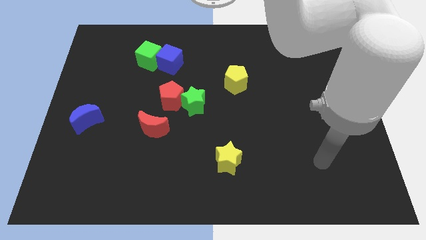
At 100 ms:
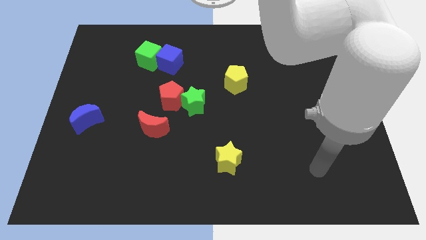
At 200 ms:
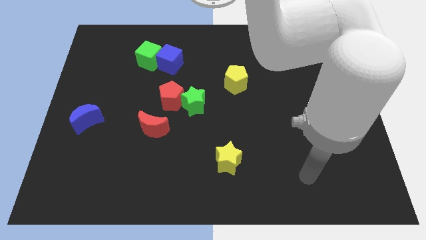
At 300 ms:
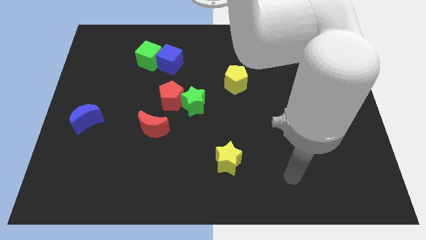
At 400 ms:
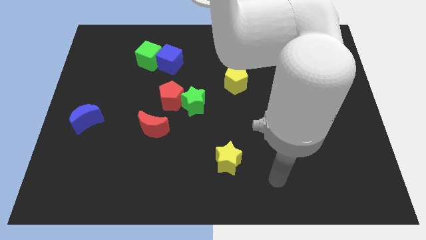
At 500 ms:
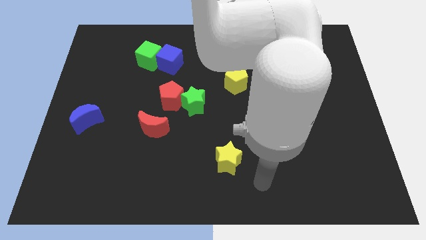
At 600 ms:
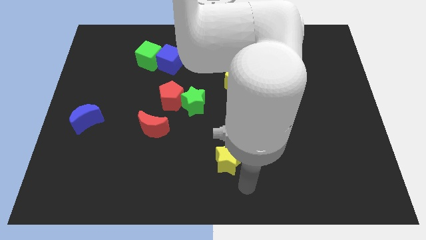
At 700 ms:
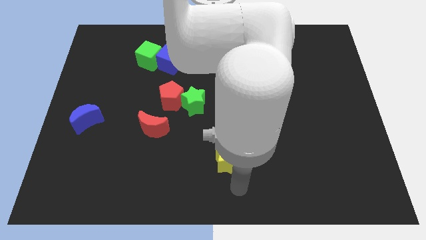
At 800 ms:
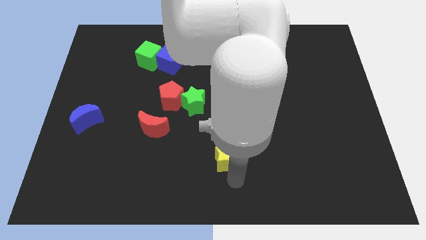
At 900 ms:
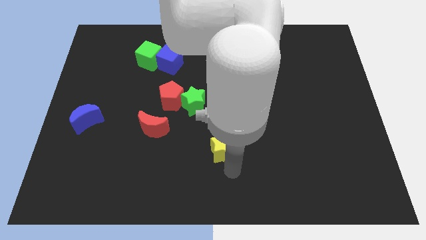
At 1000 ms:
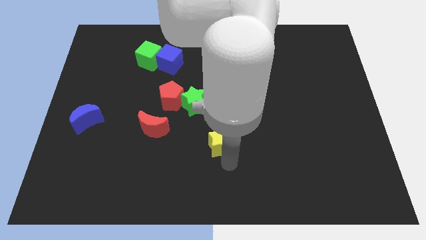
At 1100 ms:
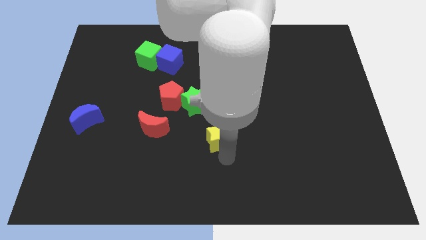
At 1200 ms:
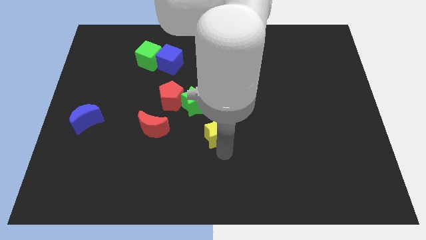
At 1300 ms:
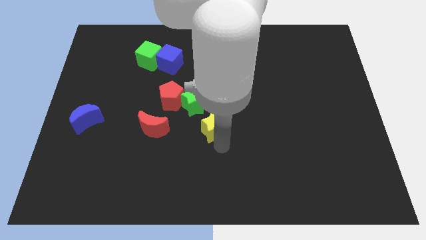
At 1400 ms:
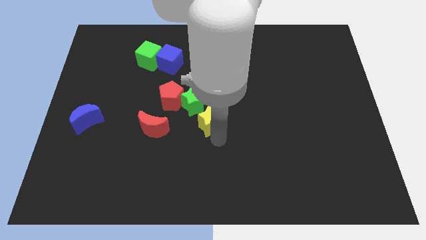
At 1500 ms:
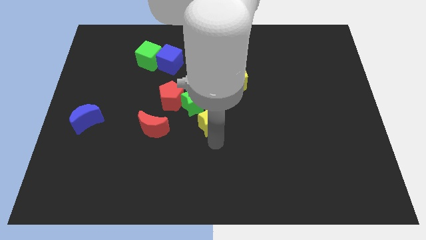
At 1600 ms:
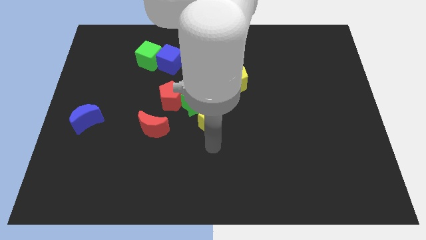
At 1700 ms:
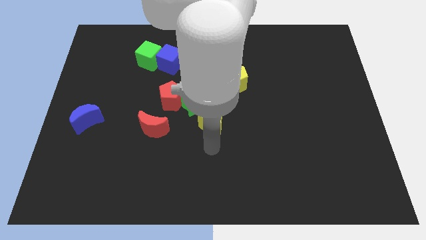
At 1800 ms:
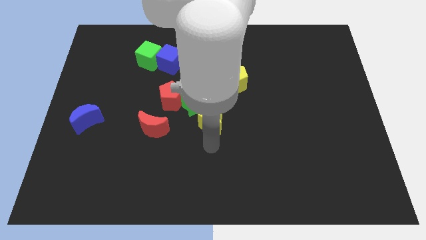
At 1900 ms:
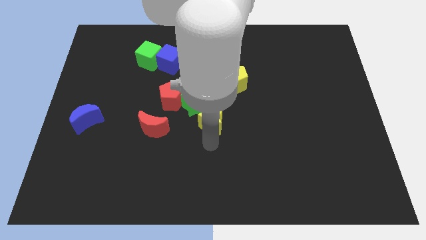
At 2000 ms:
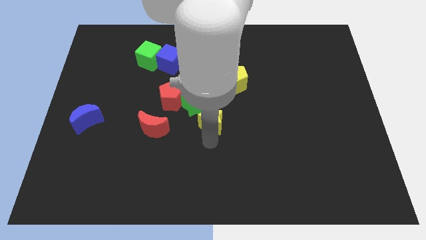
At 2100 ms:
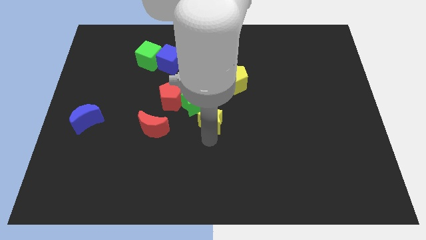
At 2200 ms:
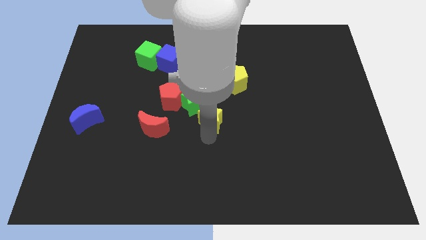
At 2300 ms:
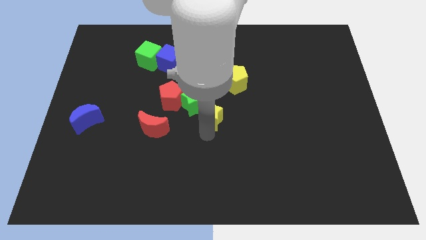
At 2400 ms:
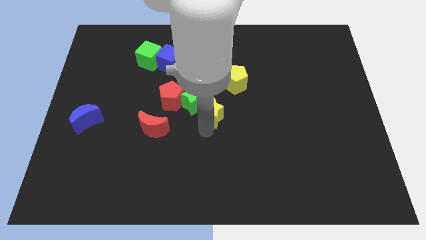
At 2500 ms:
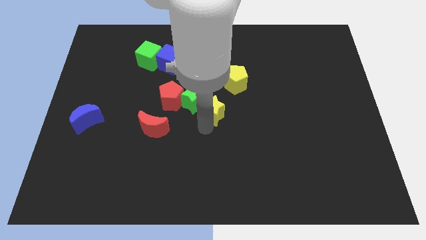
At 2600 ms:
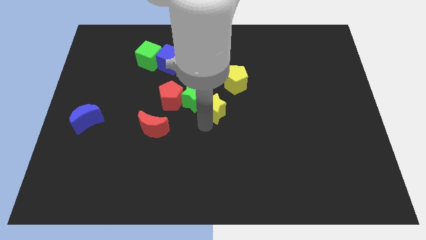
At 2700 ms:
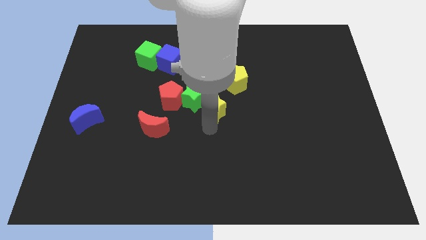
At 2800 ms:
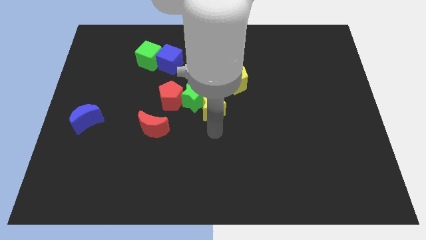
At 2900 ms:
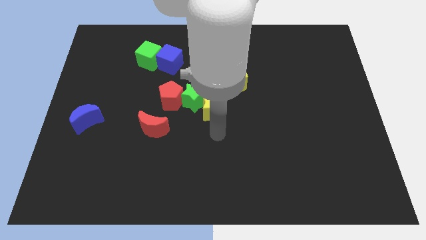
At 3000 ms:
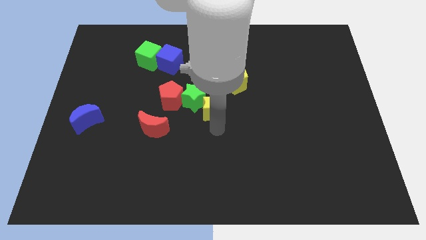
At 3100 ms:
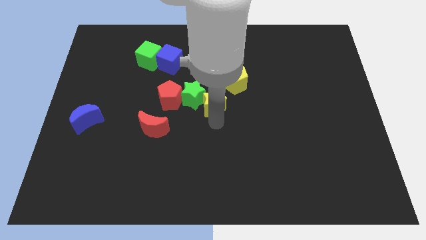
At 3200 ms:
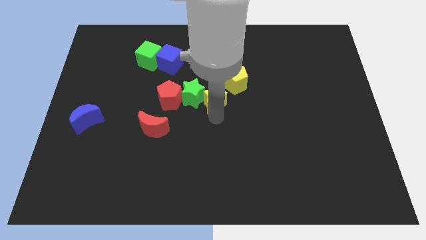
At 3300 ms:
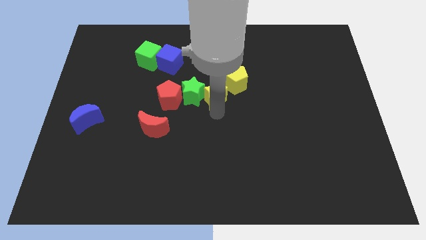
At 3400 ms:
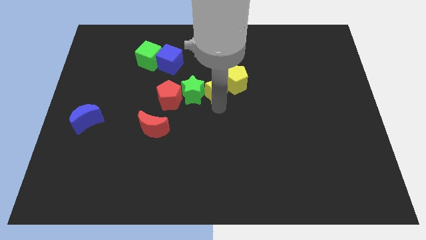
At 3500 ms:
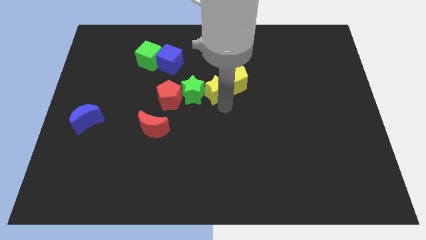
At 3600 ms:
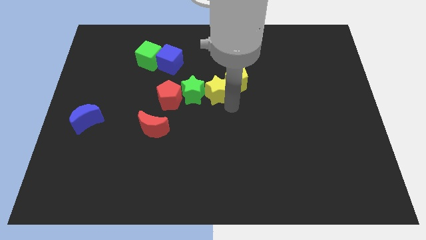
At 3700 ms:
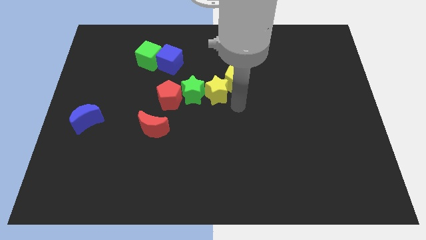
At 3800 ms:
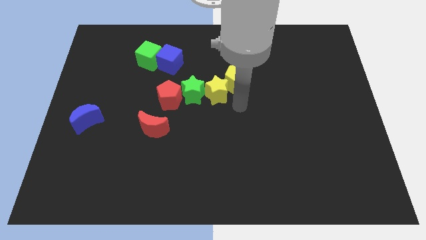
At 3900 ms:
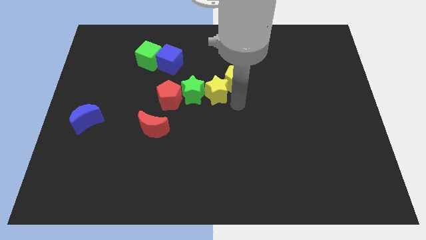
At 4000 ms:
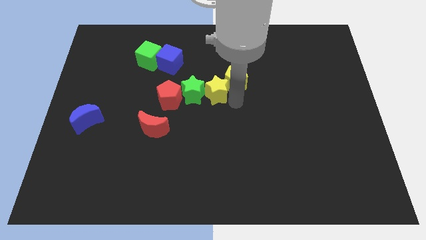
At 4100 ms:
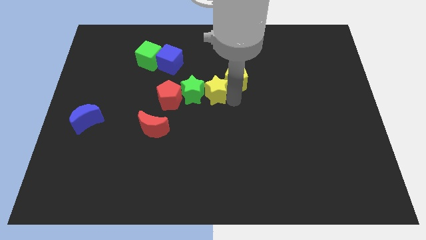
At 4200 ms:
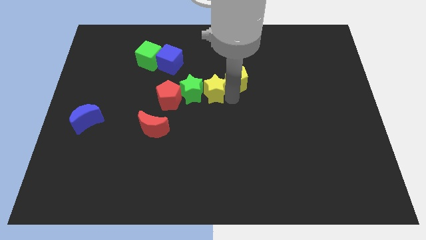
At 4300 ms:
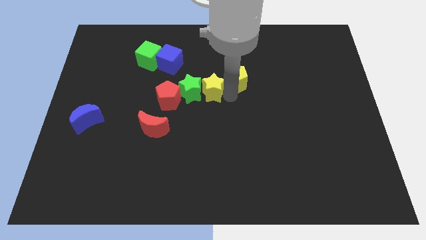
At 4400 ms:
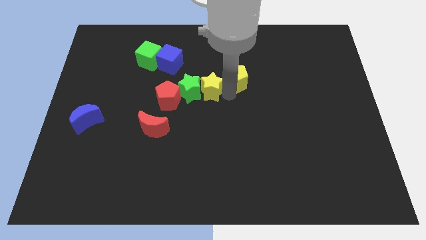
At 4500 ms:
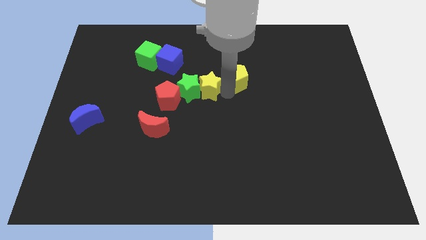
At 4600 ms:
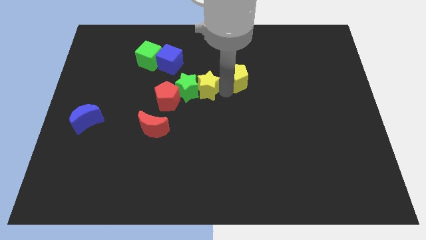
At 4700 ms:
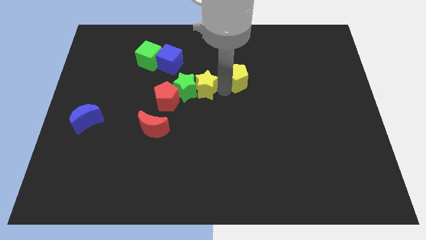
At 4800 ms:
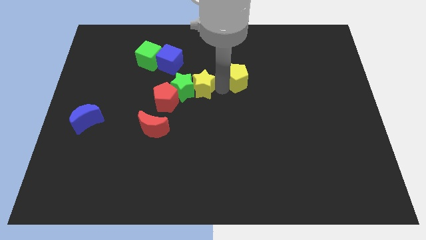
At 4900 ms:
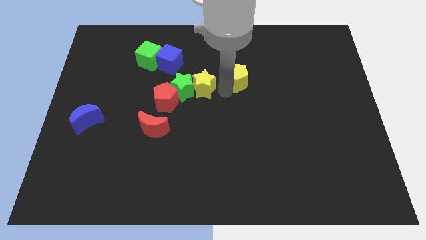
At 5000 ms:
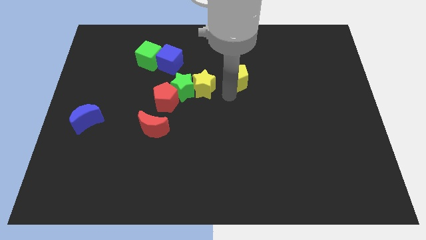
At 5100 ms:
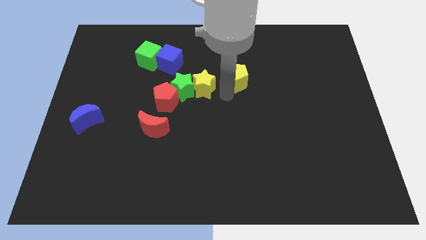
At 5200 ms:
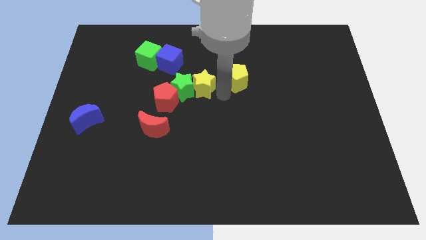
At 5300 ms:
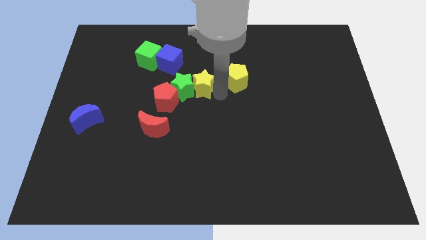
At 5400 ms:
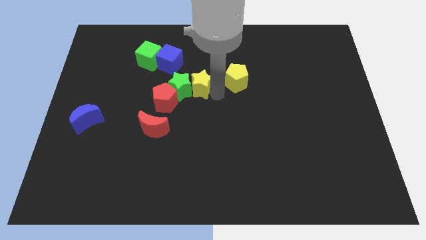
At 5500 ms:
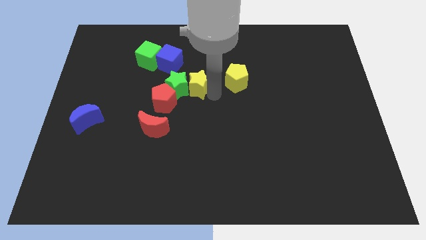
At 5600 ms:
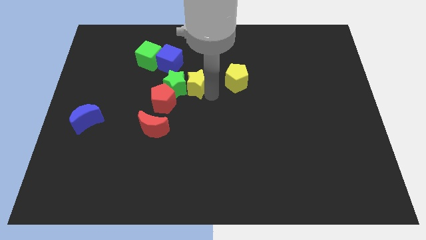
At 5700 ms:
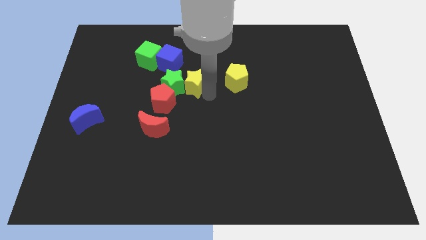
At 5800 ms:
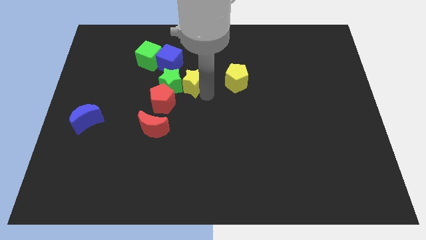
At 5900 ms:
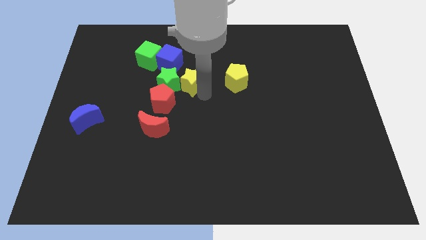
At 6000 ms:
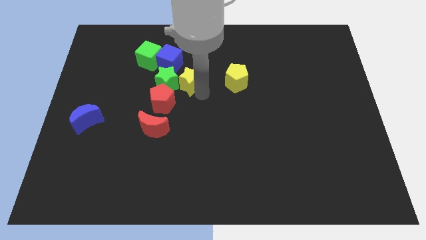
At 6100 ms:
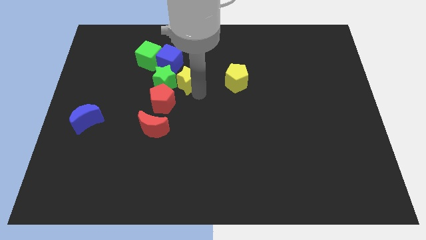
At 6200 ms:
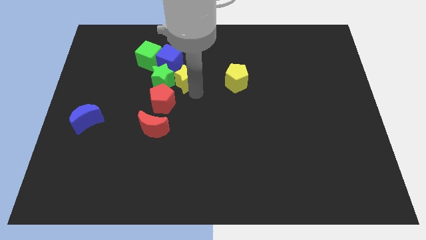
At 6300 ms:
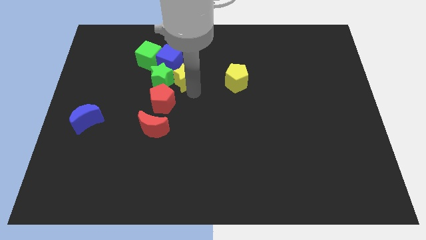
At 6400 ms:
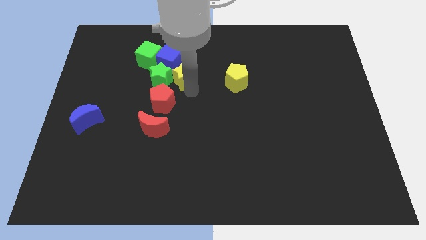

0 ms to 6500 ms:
push the yellow star diagonally upwards and left

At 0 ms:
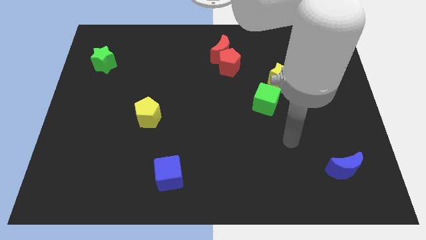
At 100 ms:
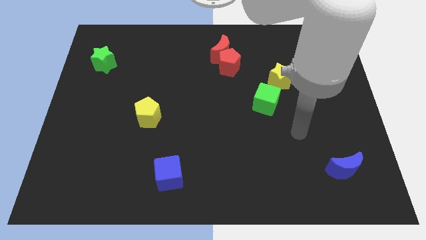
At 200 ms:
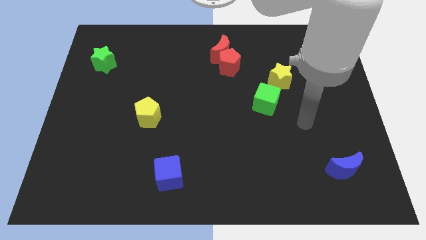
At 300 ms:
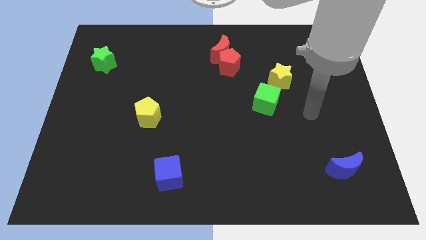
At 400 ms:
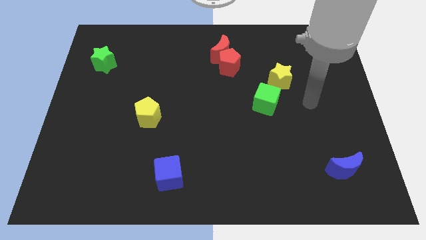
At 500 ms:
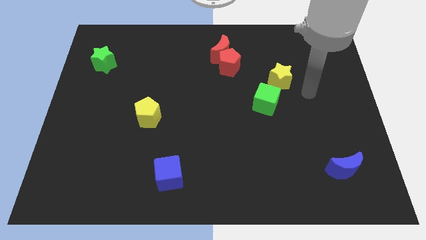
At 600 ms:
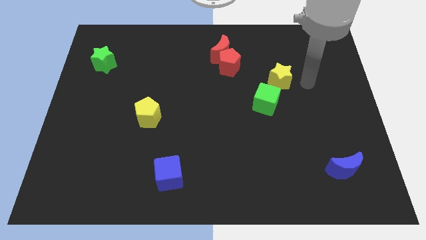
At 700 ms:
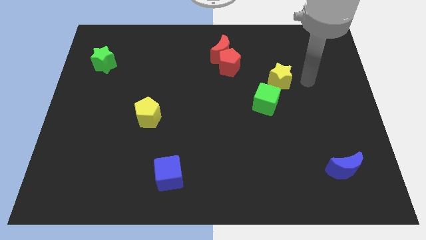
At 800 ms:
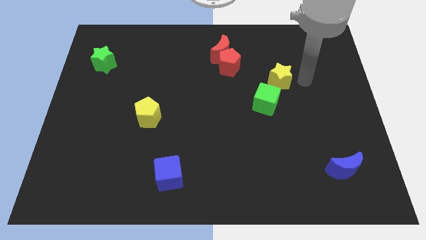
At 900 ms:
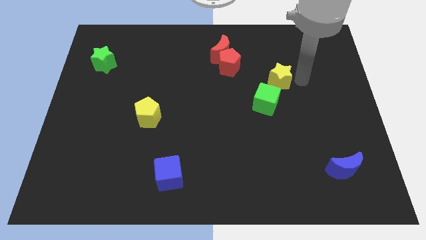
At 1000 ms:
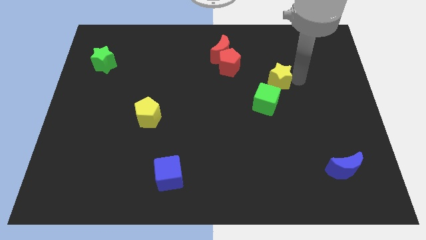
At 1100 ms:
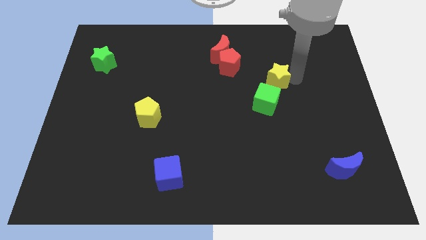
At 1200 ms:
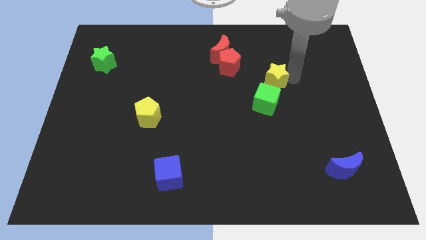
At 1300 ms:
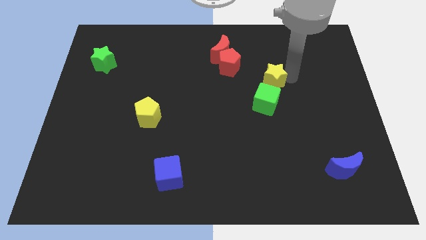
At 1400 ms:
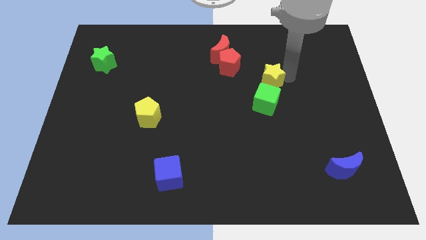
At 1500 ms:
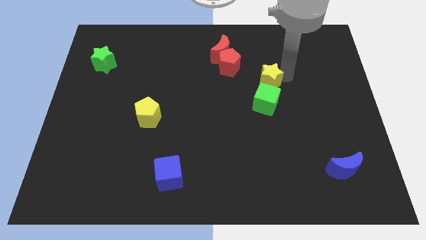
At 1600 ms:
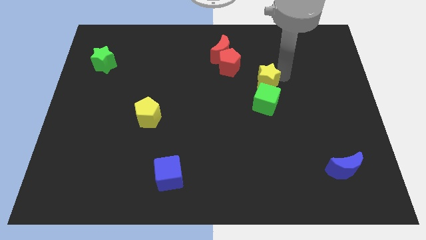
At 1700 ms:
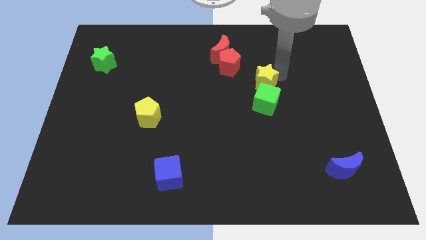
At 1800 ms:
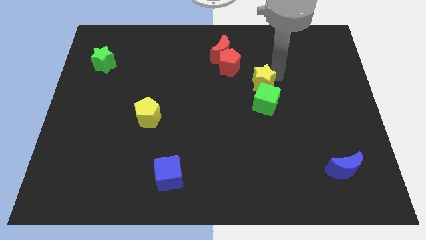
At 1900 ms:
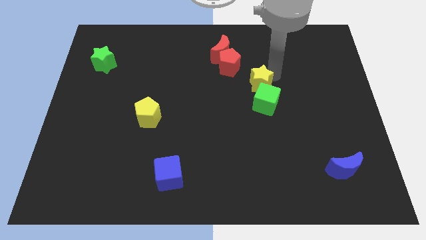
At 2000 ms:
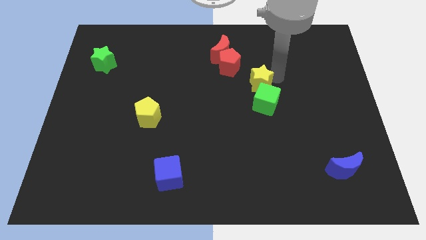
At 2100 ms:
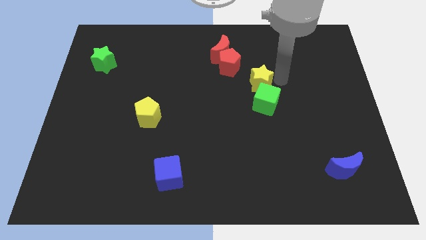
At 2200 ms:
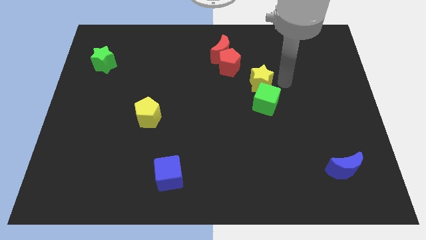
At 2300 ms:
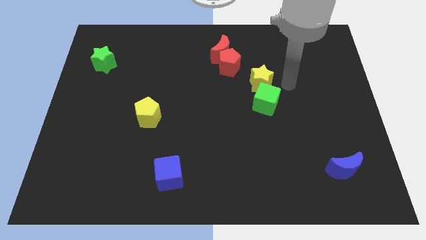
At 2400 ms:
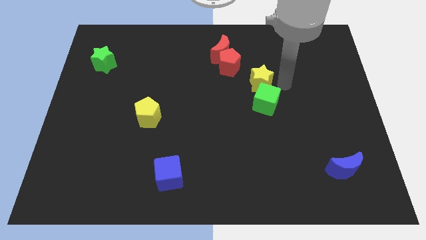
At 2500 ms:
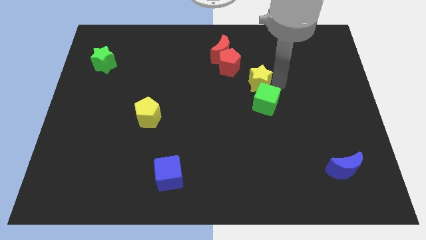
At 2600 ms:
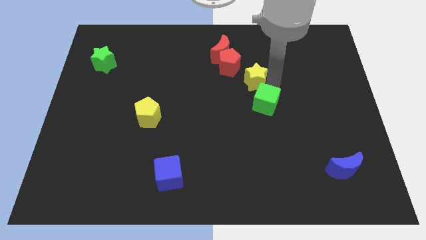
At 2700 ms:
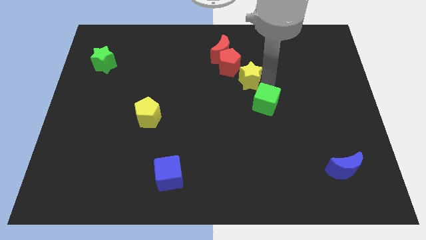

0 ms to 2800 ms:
slightly move the yellow star left
